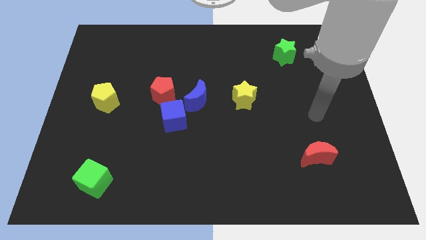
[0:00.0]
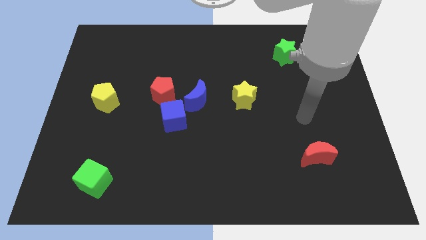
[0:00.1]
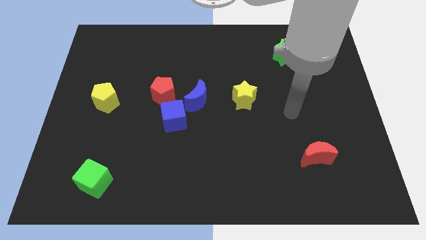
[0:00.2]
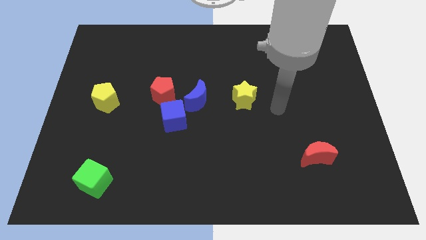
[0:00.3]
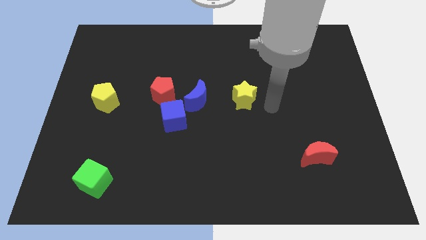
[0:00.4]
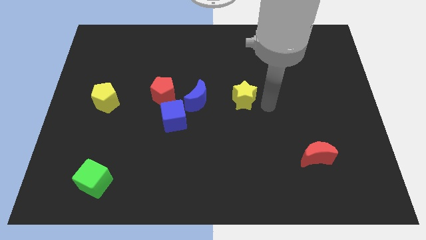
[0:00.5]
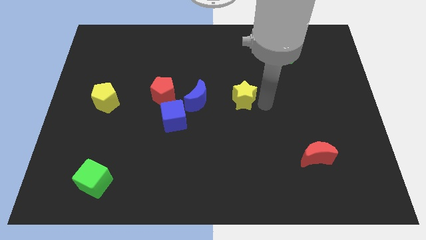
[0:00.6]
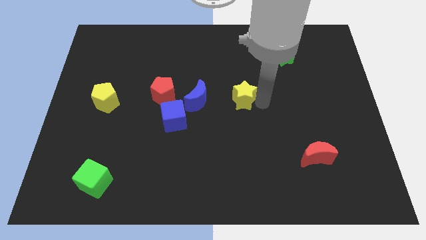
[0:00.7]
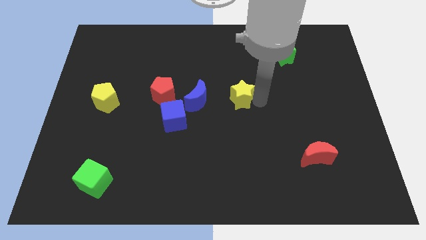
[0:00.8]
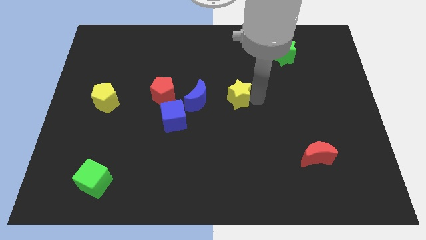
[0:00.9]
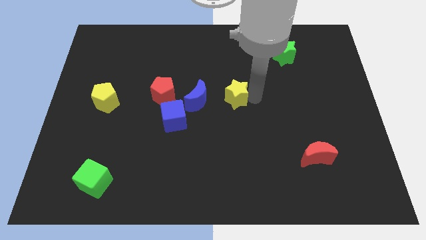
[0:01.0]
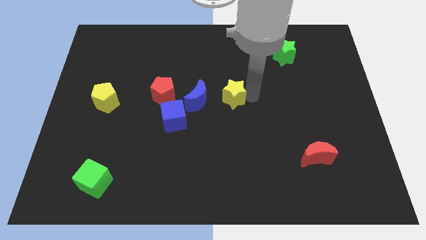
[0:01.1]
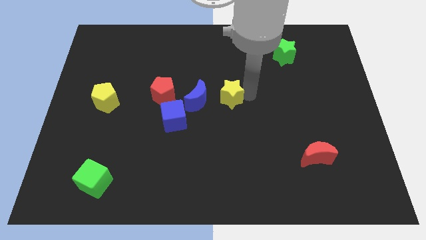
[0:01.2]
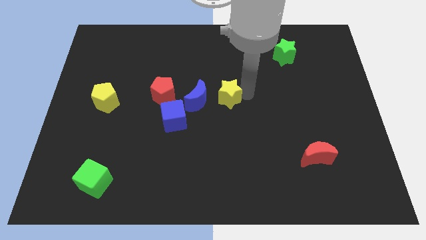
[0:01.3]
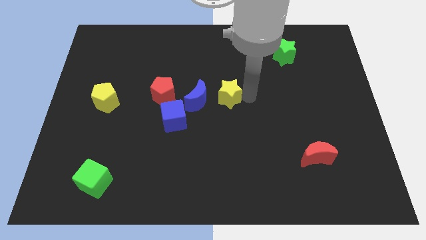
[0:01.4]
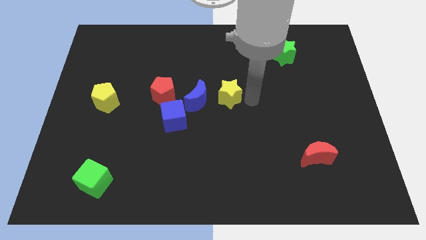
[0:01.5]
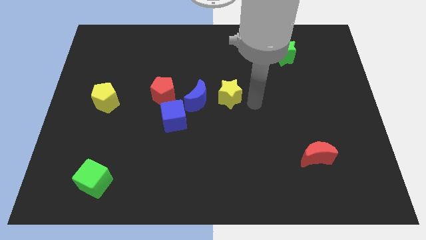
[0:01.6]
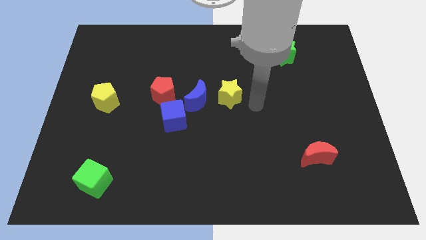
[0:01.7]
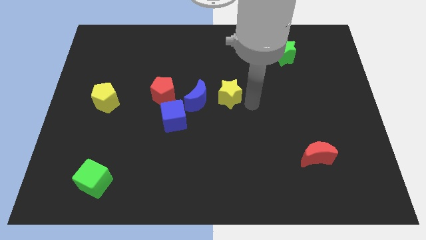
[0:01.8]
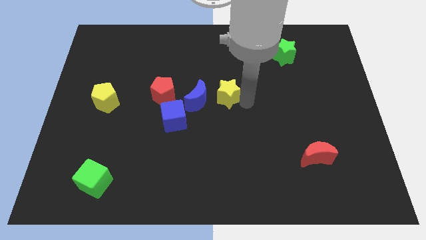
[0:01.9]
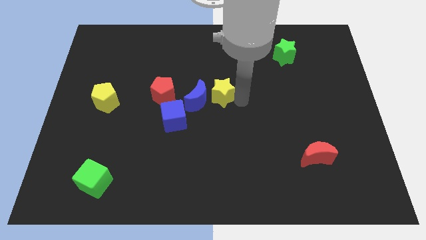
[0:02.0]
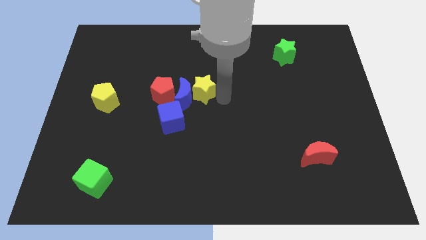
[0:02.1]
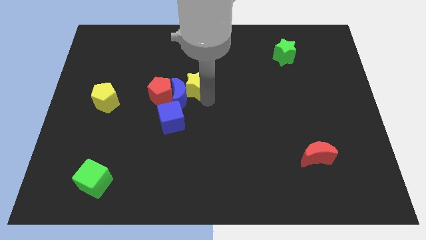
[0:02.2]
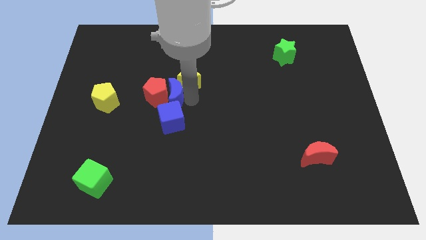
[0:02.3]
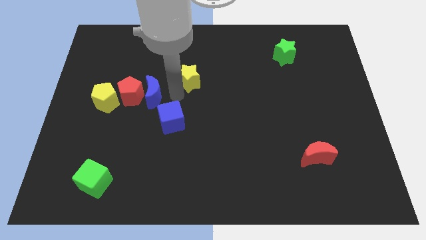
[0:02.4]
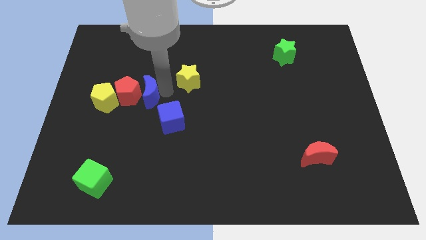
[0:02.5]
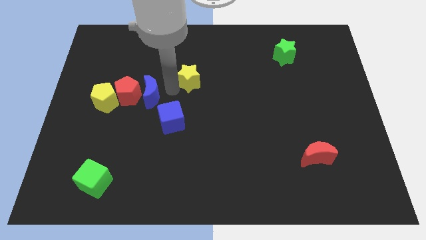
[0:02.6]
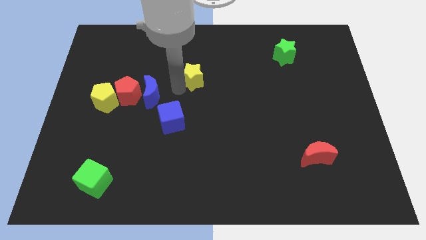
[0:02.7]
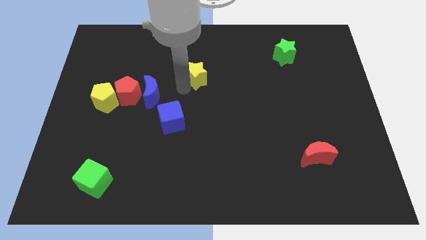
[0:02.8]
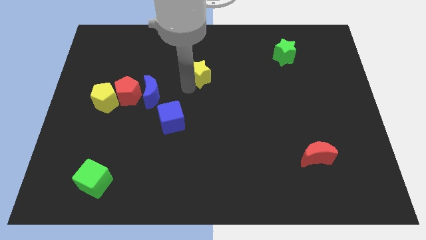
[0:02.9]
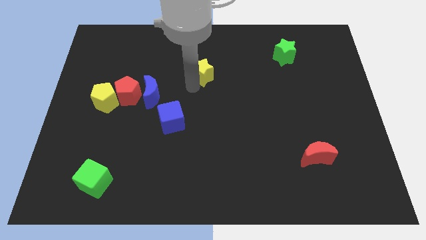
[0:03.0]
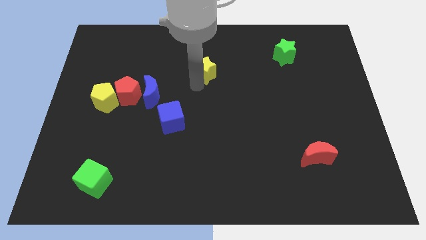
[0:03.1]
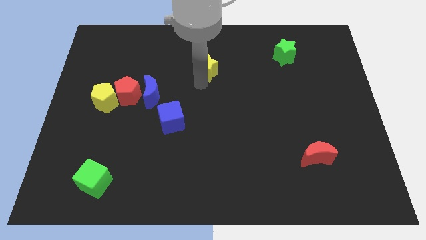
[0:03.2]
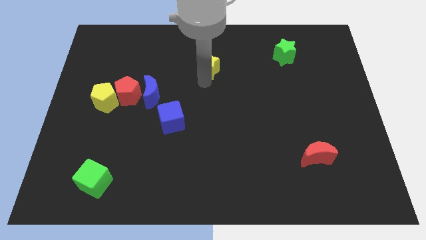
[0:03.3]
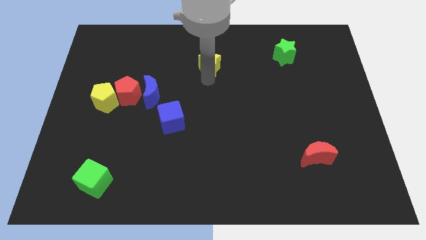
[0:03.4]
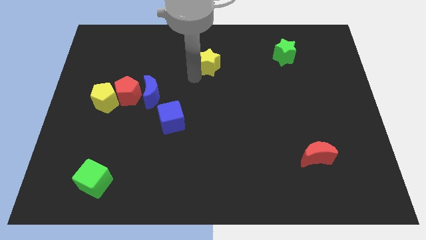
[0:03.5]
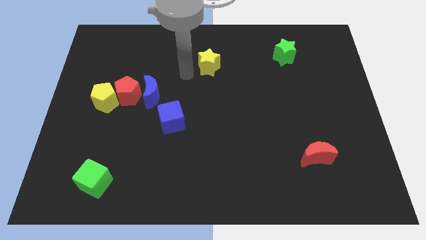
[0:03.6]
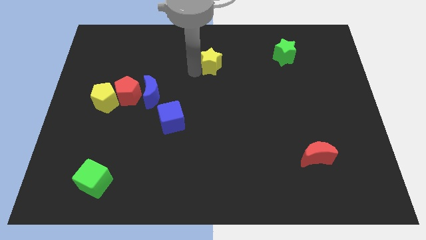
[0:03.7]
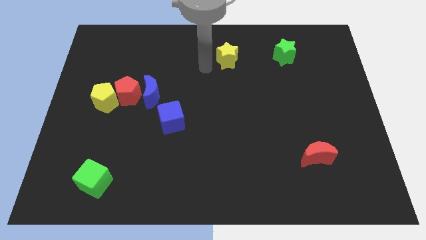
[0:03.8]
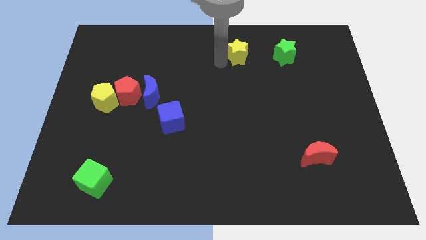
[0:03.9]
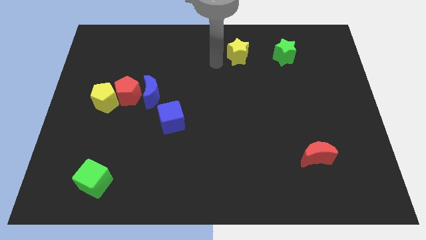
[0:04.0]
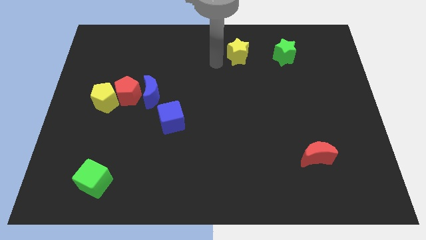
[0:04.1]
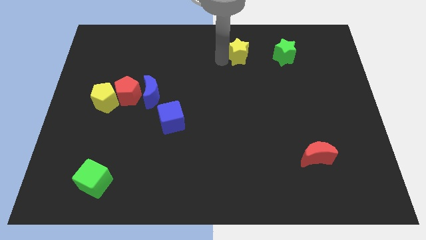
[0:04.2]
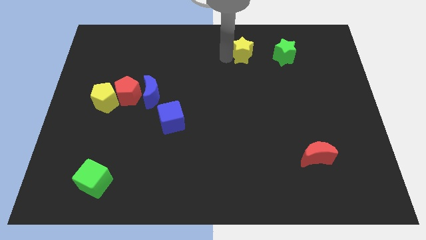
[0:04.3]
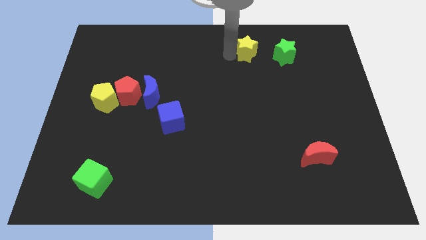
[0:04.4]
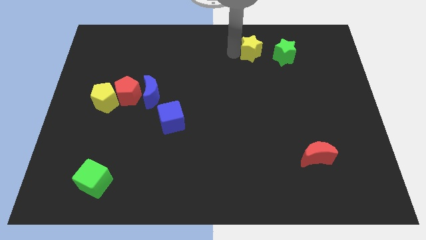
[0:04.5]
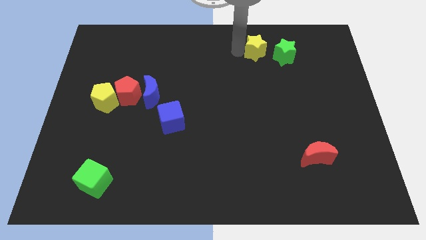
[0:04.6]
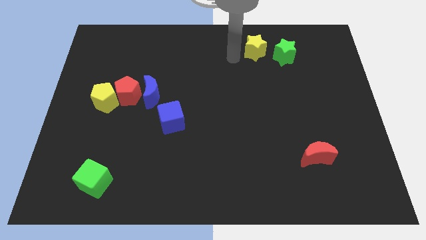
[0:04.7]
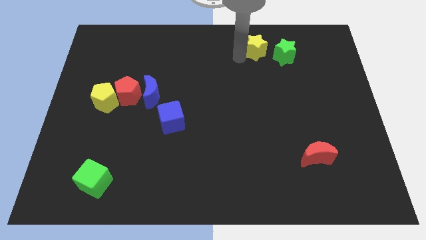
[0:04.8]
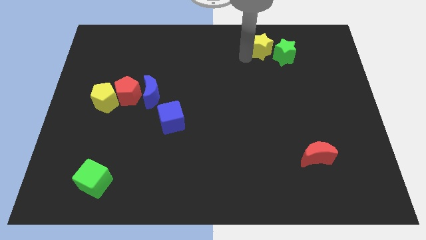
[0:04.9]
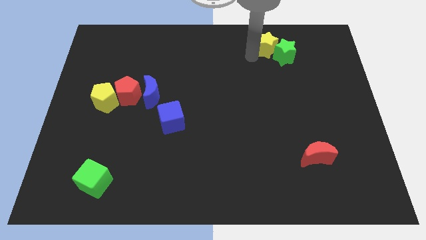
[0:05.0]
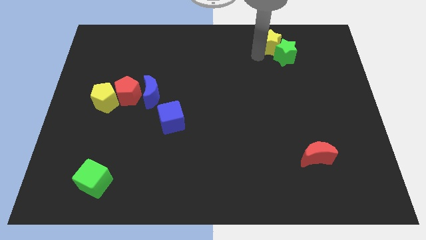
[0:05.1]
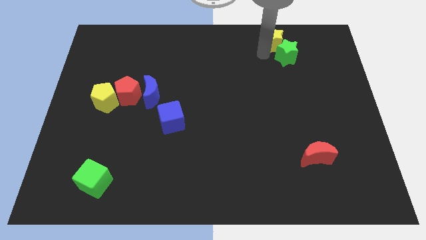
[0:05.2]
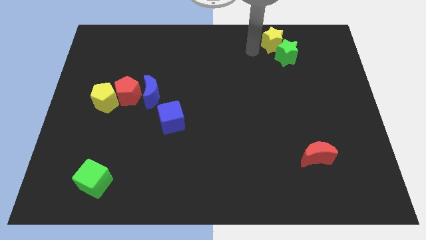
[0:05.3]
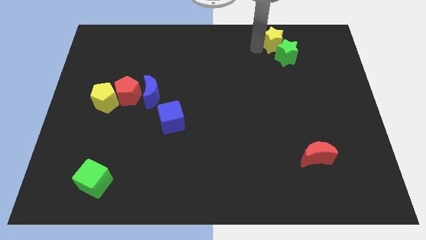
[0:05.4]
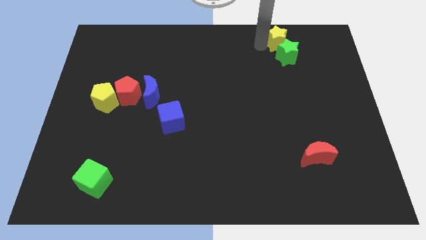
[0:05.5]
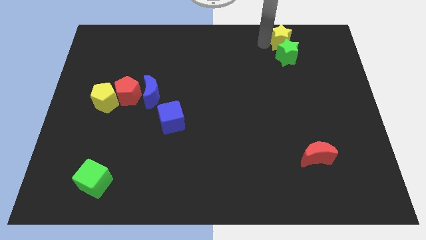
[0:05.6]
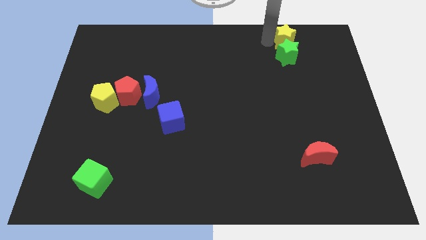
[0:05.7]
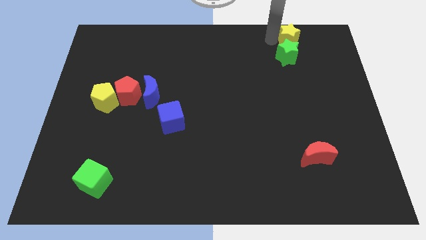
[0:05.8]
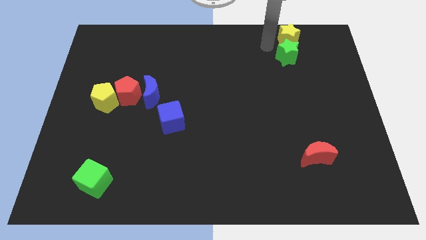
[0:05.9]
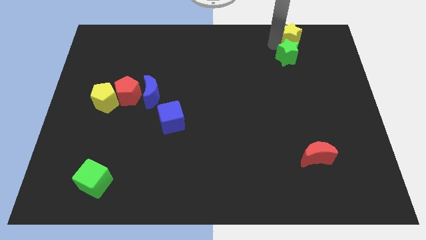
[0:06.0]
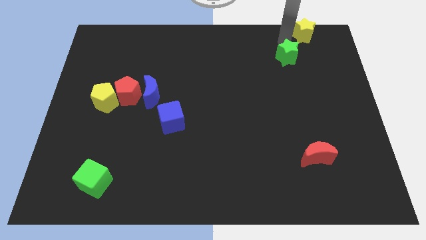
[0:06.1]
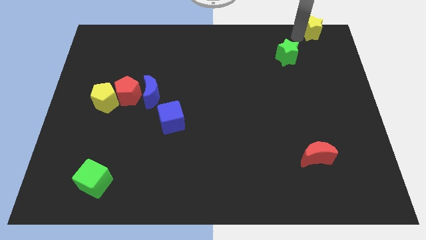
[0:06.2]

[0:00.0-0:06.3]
push the yellow star to the top right of the board
